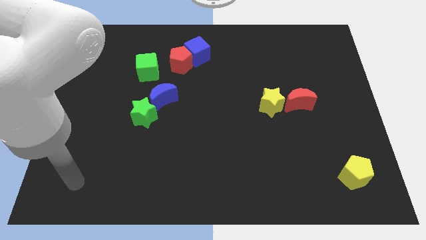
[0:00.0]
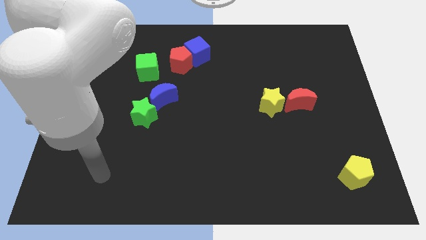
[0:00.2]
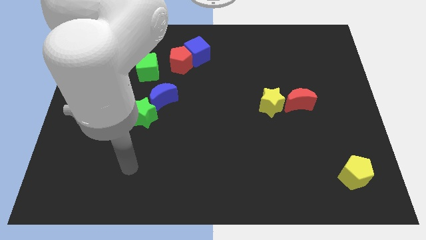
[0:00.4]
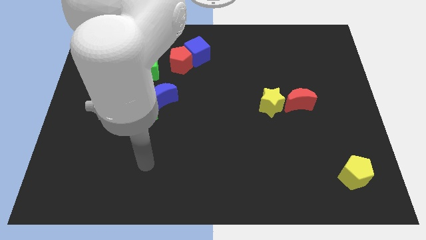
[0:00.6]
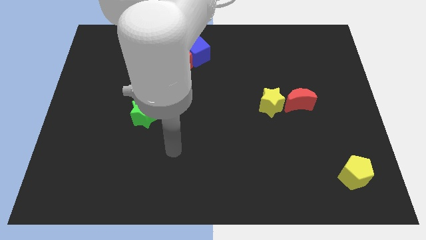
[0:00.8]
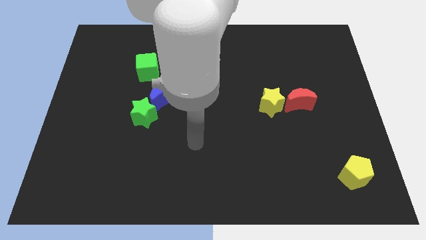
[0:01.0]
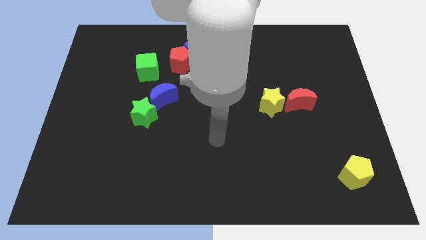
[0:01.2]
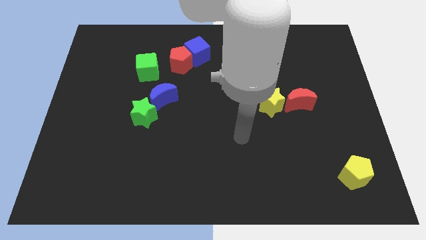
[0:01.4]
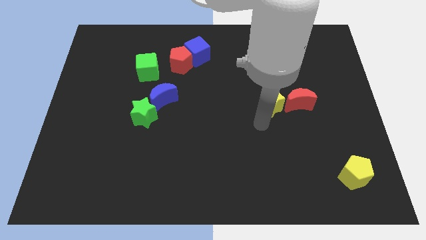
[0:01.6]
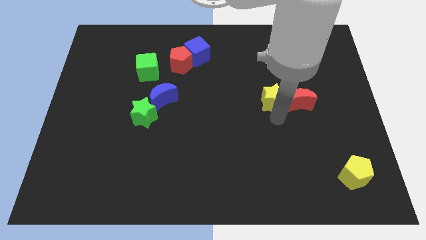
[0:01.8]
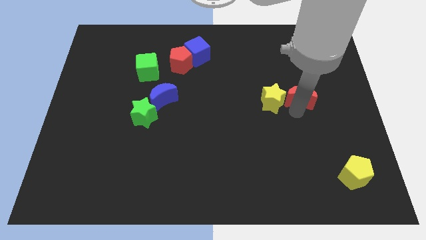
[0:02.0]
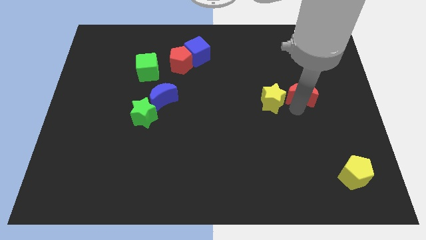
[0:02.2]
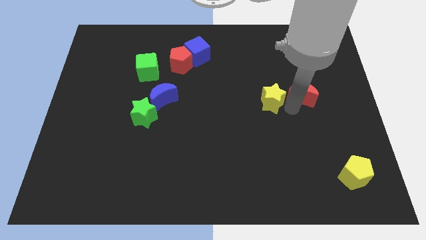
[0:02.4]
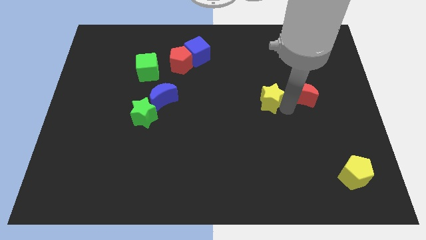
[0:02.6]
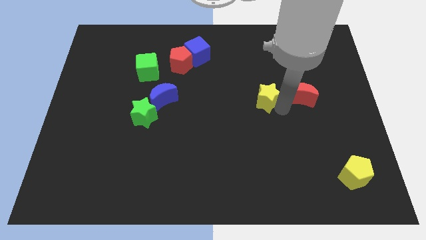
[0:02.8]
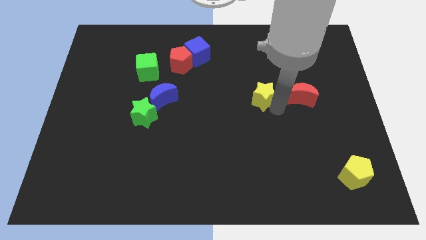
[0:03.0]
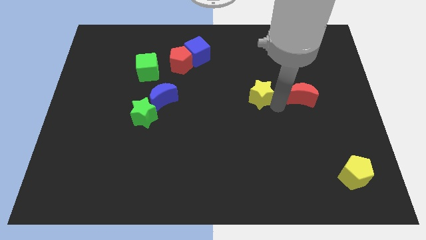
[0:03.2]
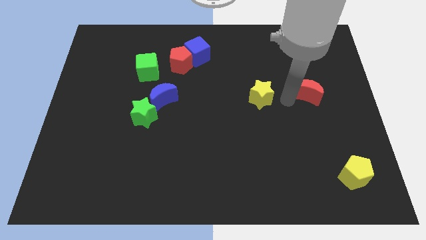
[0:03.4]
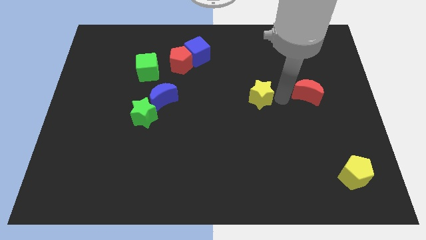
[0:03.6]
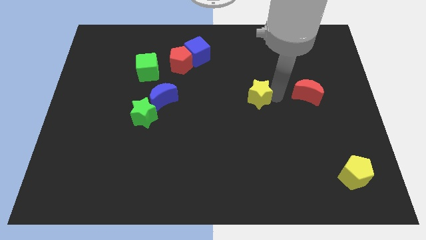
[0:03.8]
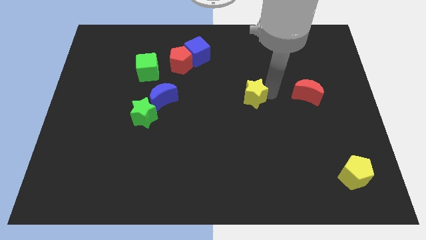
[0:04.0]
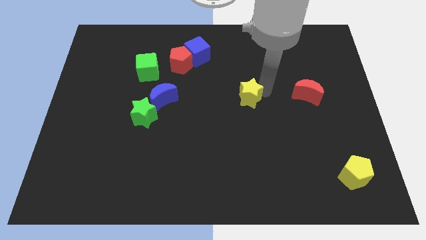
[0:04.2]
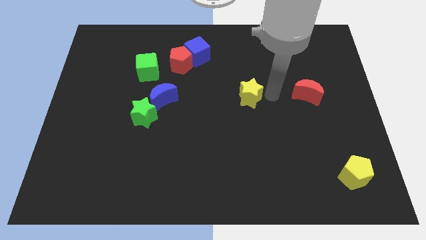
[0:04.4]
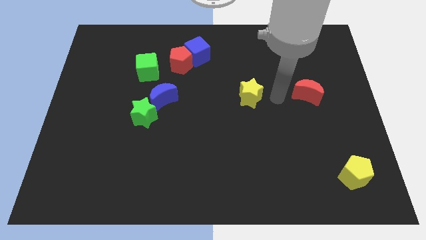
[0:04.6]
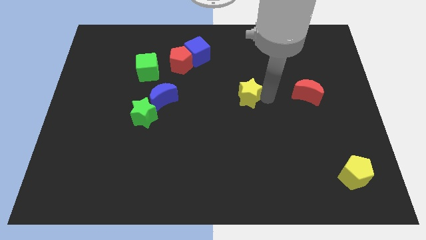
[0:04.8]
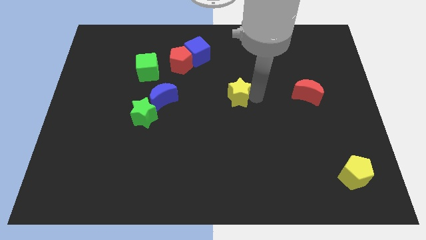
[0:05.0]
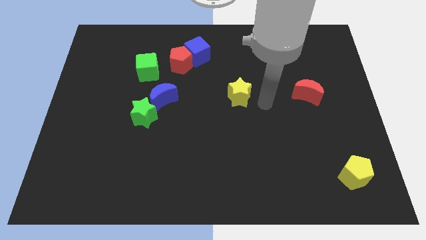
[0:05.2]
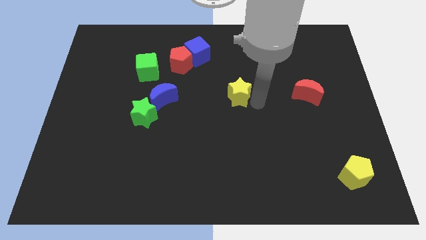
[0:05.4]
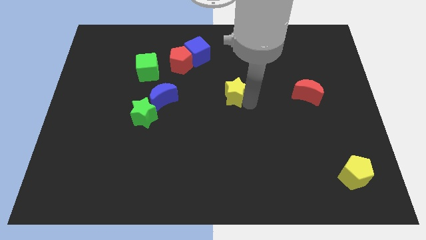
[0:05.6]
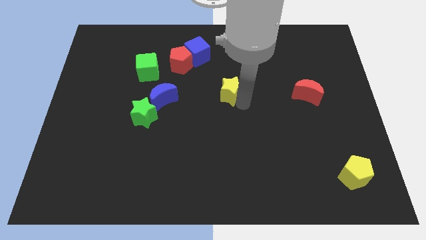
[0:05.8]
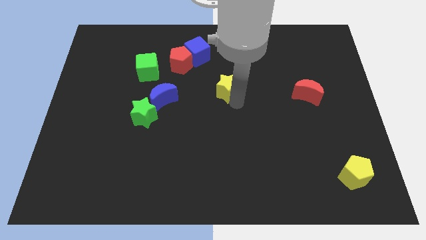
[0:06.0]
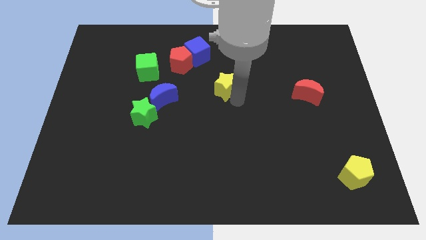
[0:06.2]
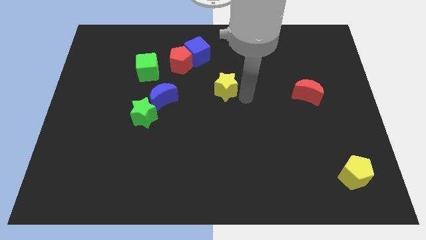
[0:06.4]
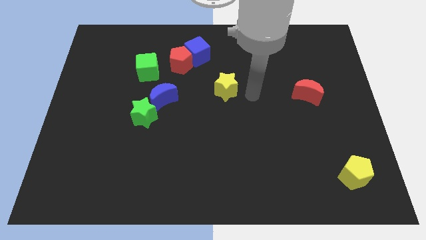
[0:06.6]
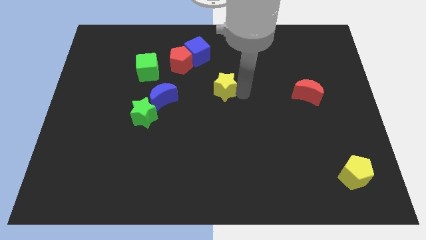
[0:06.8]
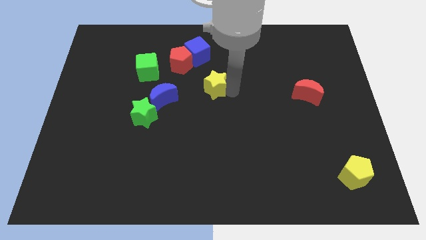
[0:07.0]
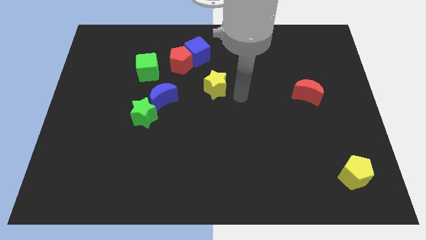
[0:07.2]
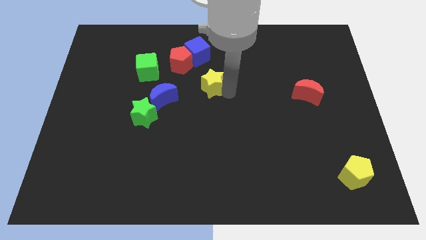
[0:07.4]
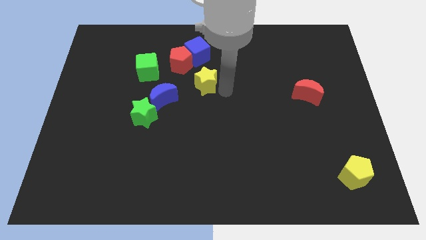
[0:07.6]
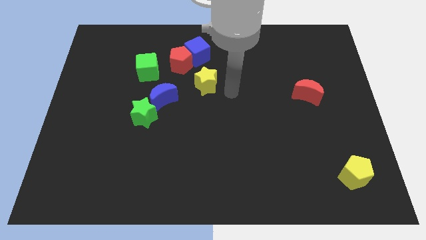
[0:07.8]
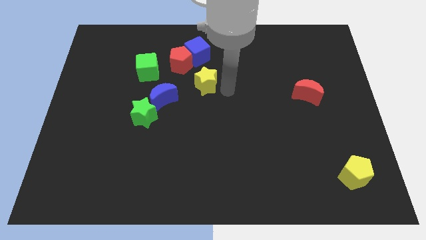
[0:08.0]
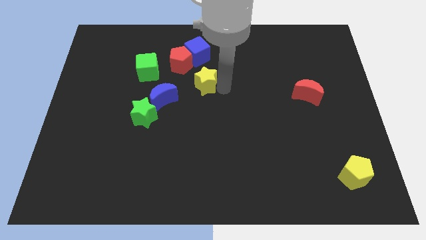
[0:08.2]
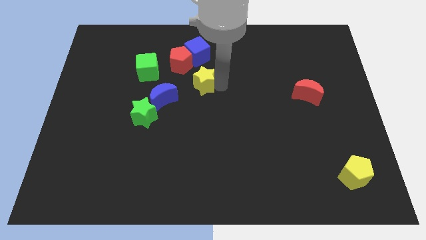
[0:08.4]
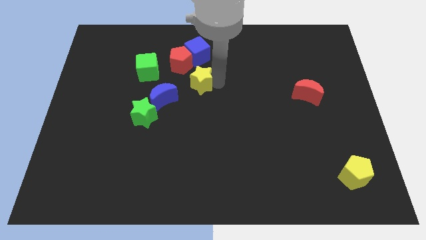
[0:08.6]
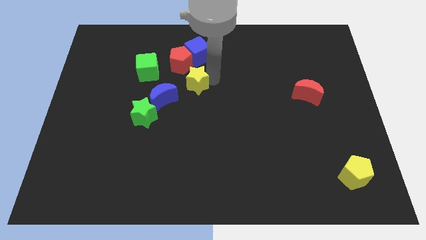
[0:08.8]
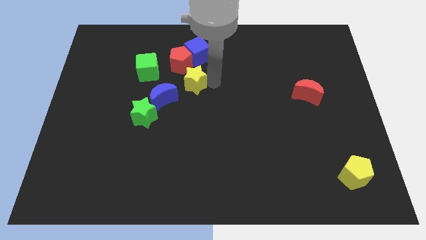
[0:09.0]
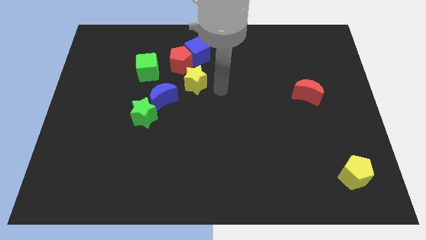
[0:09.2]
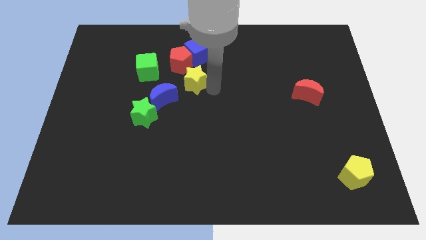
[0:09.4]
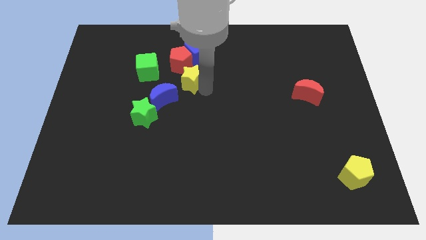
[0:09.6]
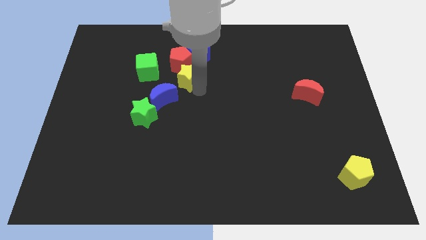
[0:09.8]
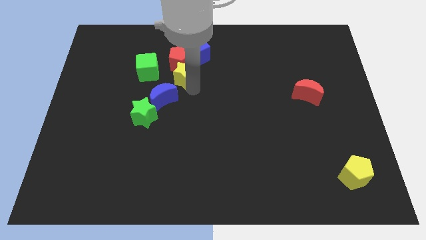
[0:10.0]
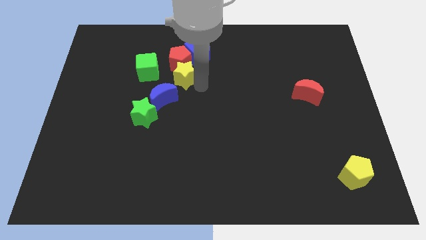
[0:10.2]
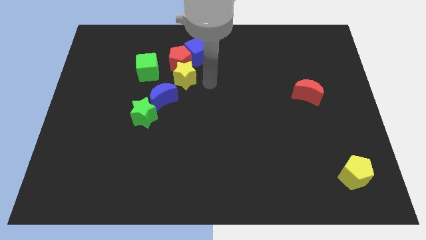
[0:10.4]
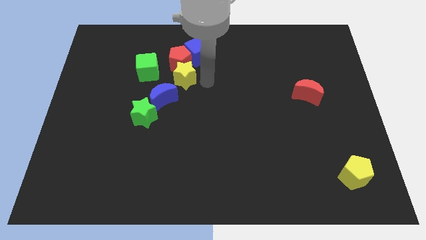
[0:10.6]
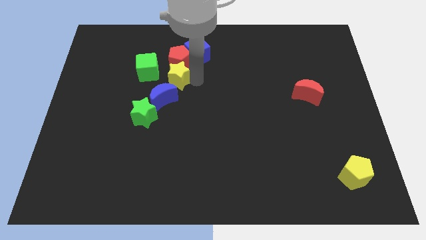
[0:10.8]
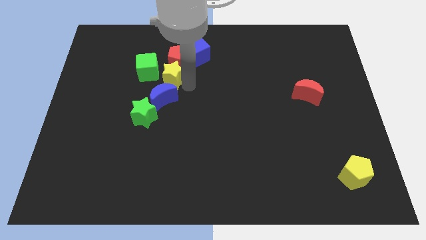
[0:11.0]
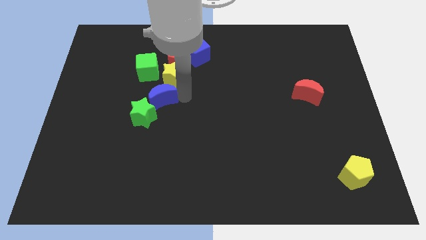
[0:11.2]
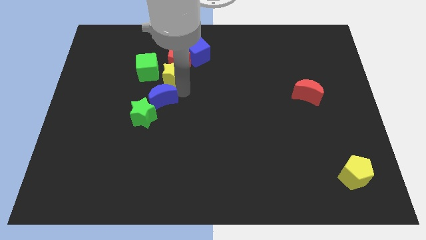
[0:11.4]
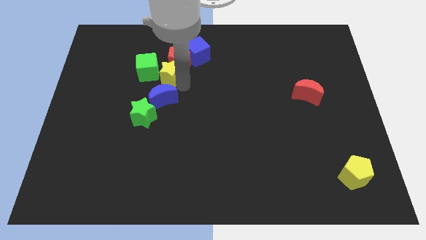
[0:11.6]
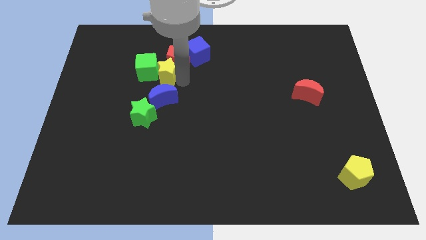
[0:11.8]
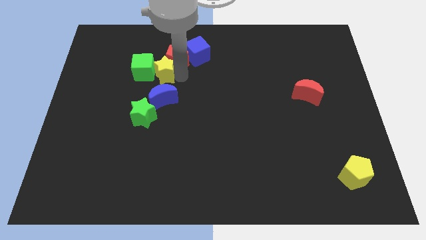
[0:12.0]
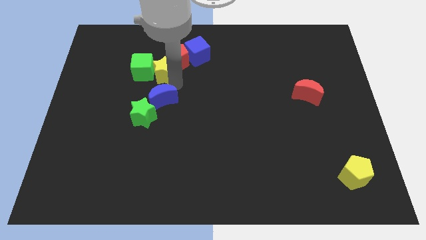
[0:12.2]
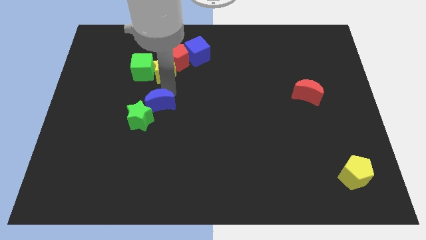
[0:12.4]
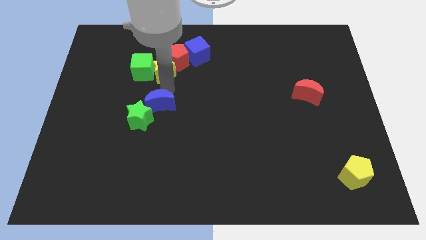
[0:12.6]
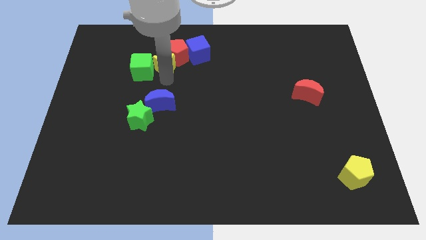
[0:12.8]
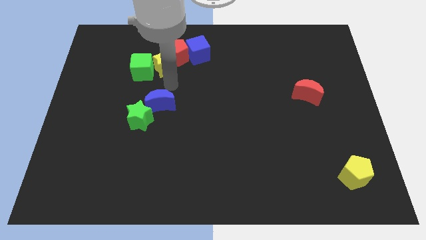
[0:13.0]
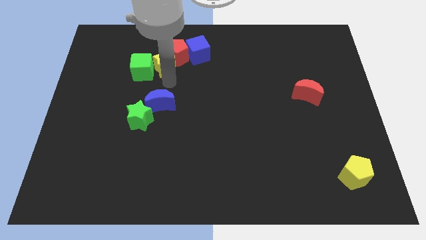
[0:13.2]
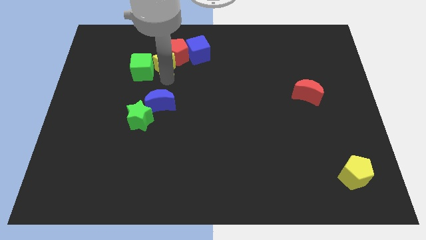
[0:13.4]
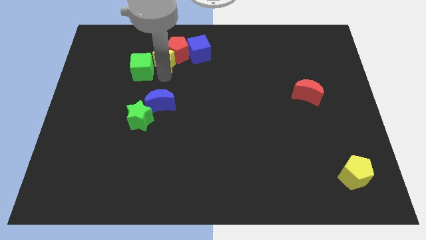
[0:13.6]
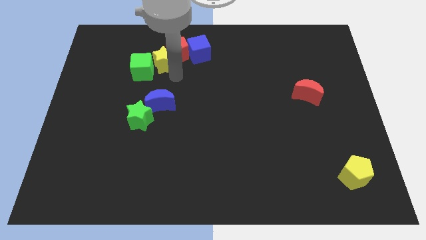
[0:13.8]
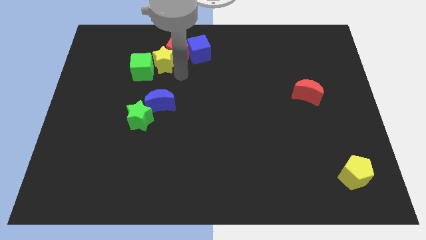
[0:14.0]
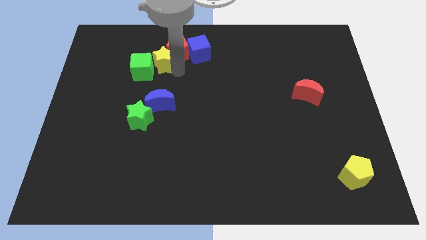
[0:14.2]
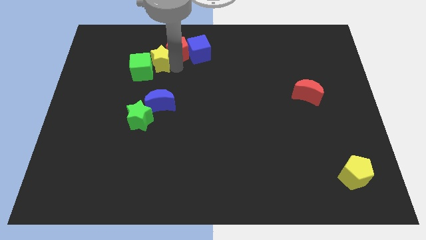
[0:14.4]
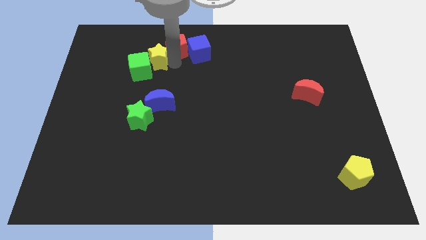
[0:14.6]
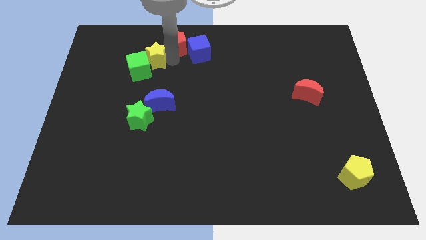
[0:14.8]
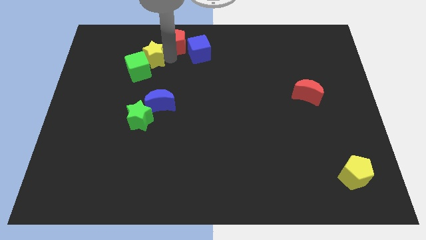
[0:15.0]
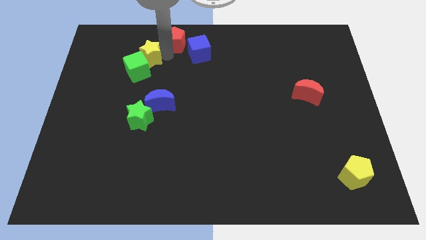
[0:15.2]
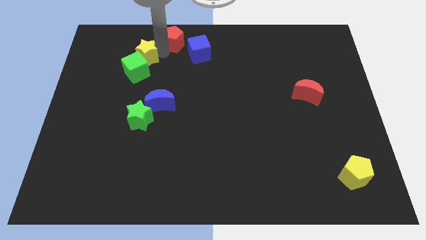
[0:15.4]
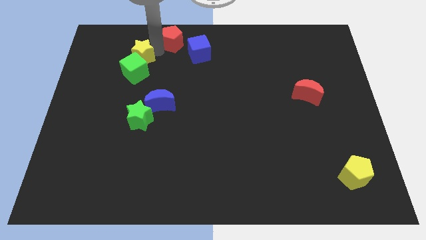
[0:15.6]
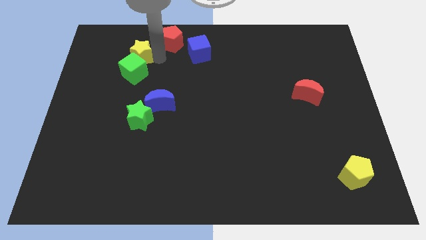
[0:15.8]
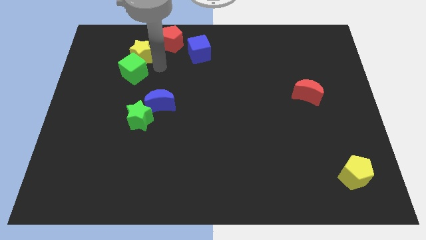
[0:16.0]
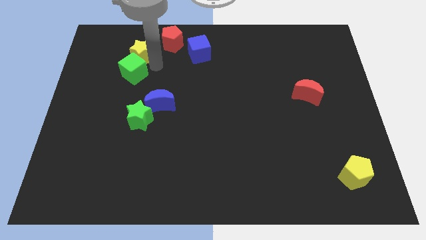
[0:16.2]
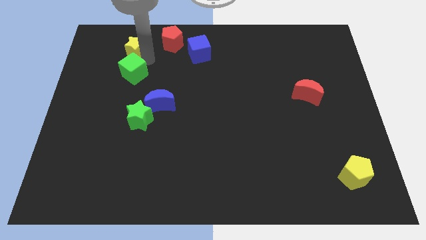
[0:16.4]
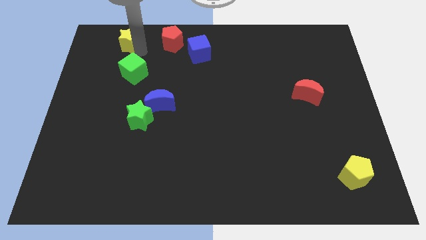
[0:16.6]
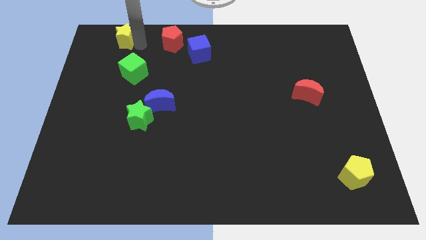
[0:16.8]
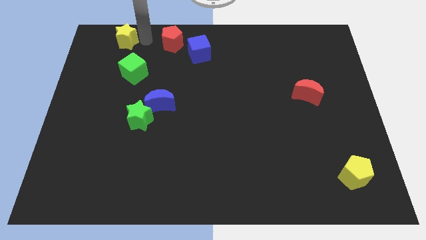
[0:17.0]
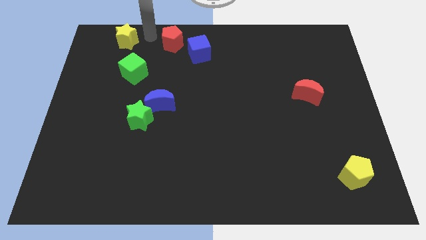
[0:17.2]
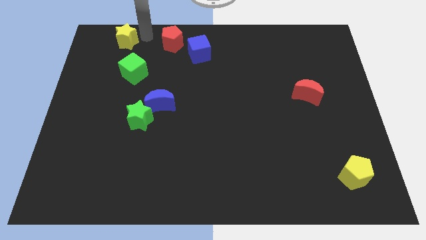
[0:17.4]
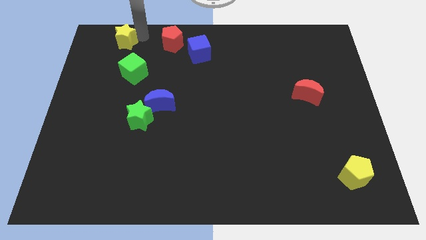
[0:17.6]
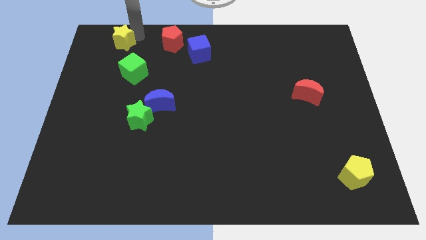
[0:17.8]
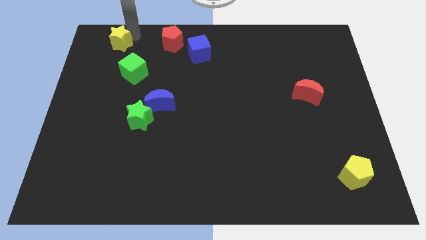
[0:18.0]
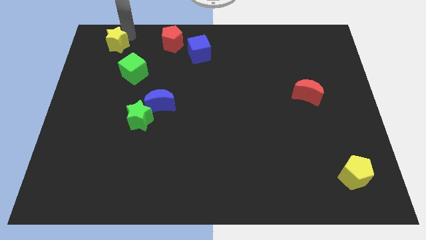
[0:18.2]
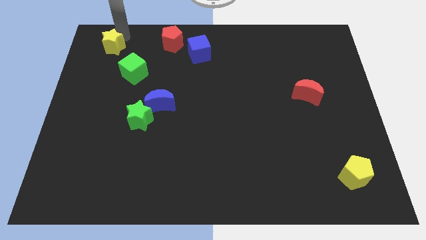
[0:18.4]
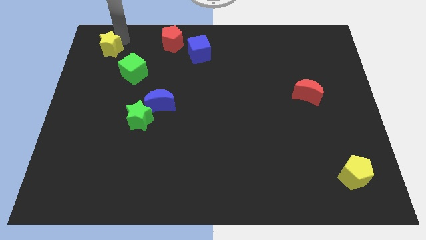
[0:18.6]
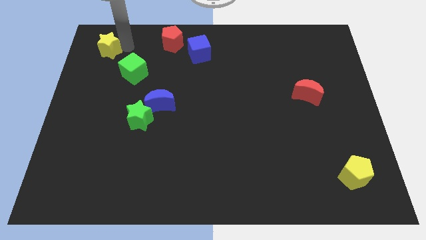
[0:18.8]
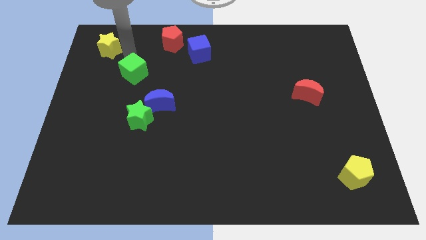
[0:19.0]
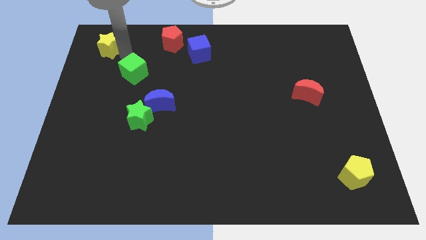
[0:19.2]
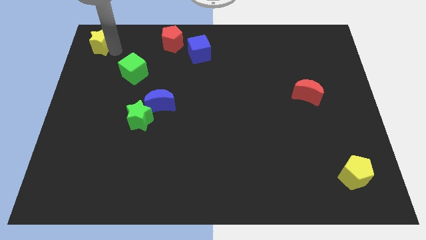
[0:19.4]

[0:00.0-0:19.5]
push the yellow star to the top left of the board
